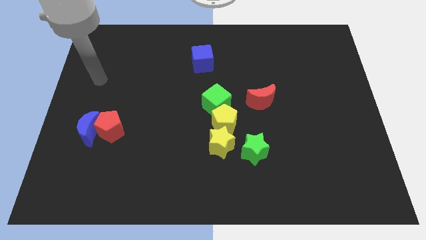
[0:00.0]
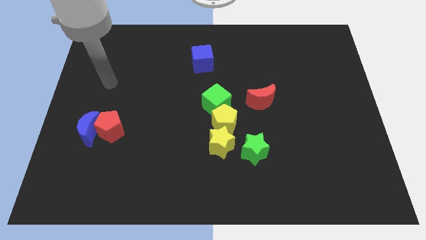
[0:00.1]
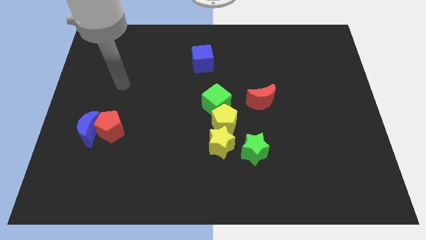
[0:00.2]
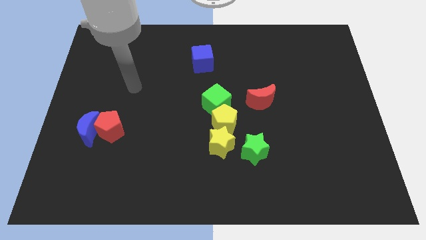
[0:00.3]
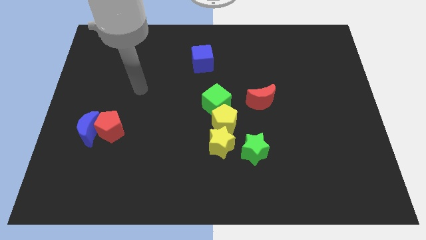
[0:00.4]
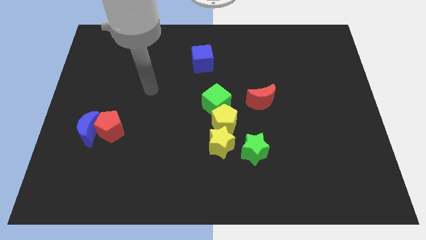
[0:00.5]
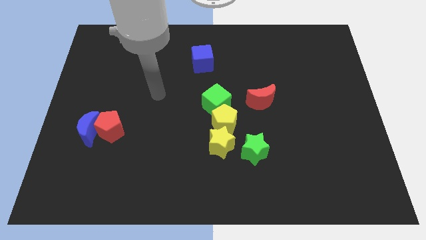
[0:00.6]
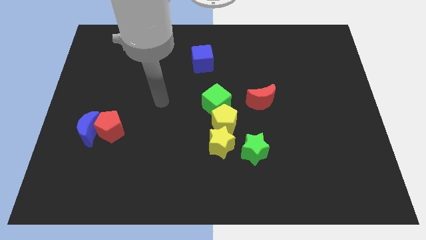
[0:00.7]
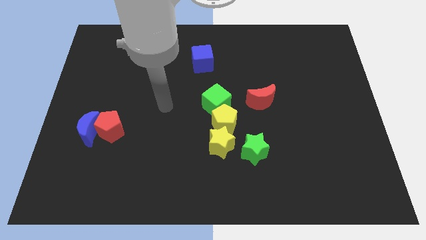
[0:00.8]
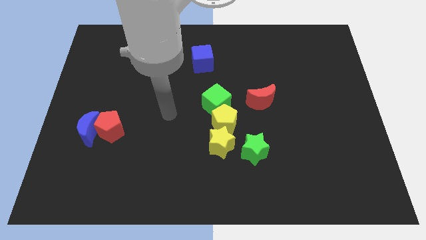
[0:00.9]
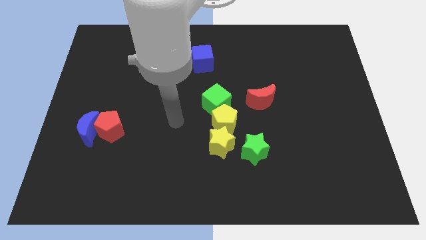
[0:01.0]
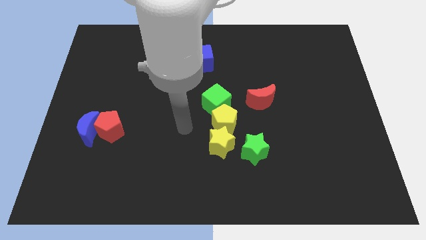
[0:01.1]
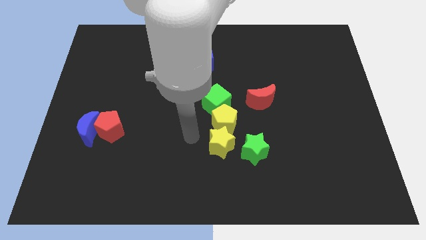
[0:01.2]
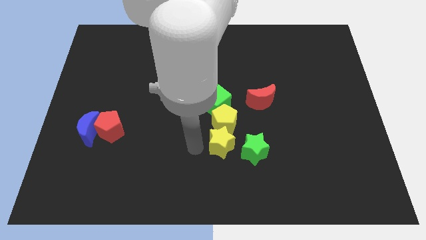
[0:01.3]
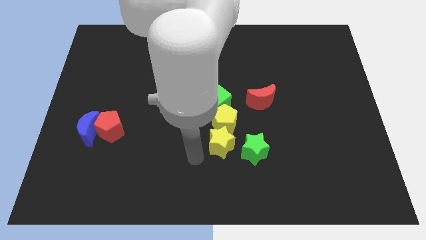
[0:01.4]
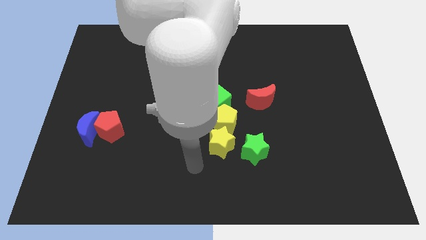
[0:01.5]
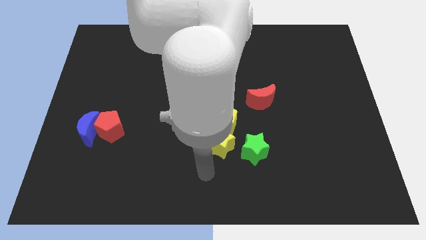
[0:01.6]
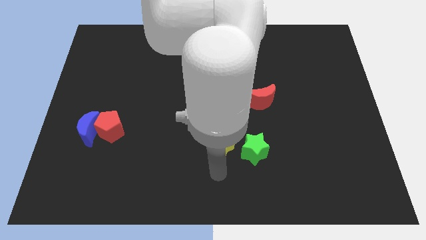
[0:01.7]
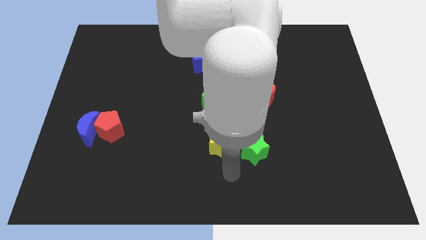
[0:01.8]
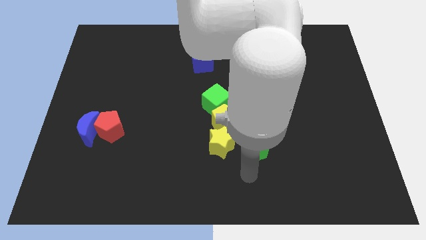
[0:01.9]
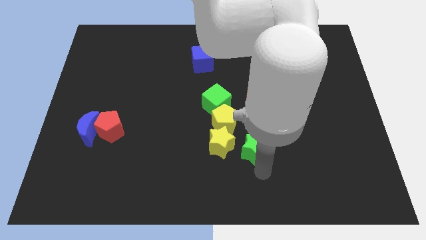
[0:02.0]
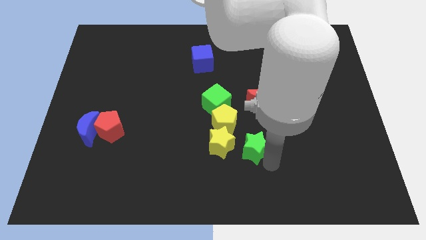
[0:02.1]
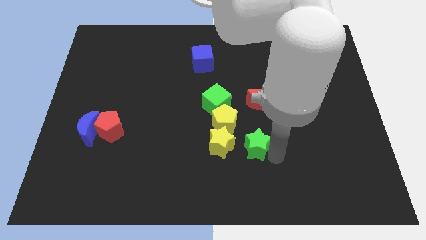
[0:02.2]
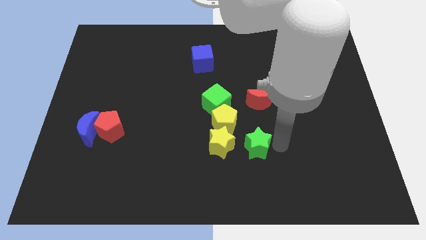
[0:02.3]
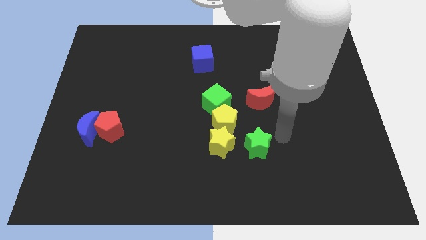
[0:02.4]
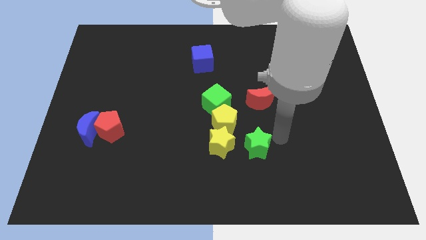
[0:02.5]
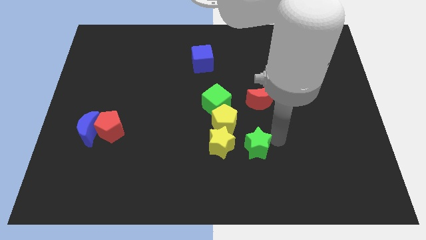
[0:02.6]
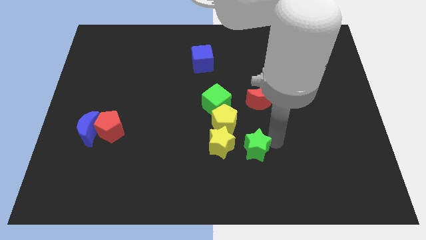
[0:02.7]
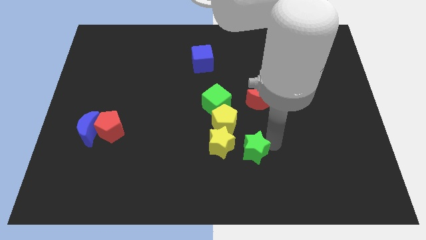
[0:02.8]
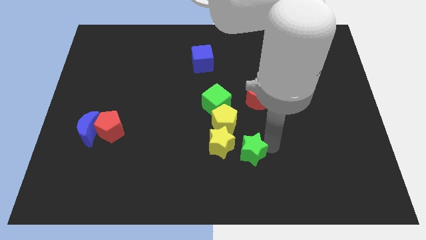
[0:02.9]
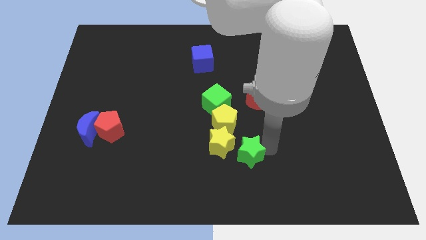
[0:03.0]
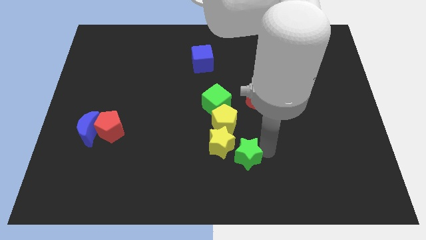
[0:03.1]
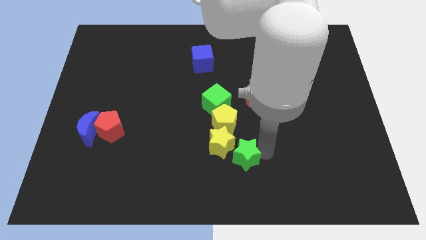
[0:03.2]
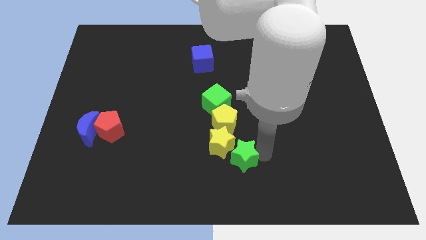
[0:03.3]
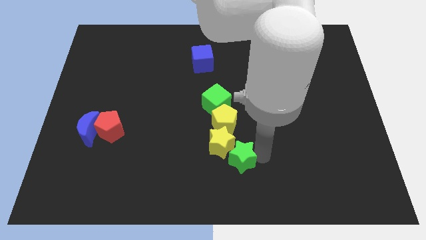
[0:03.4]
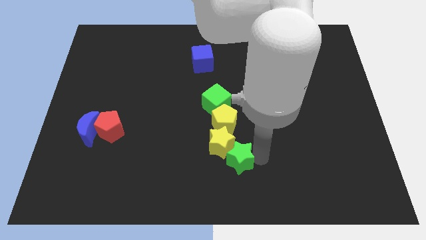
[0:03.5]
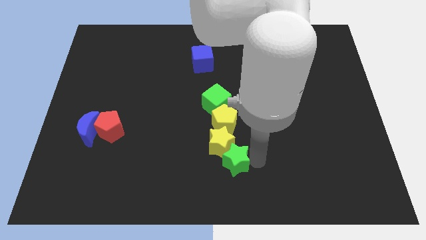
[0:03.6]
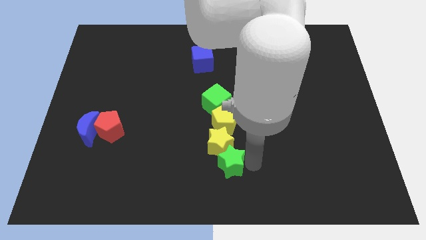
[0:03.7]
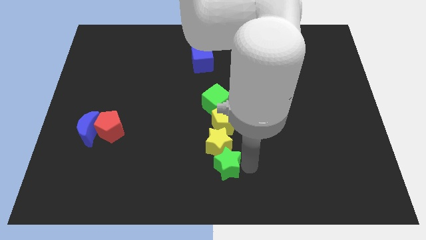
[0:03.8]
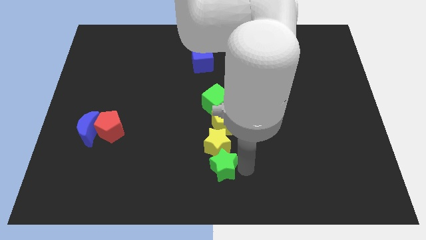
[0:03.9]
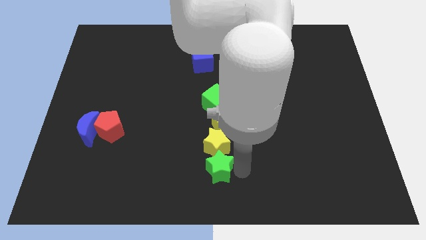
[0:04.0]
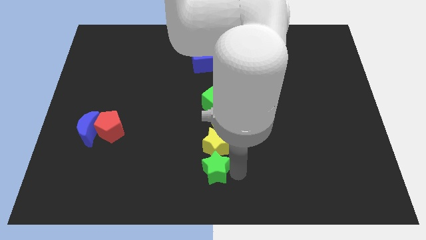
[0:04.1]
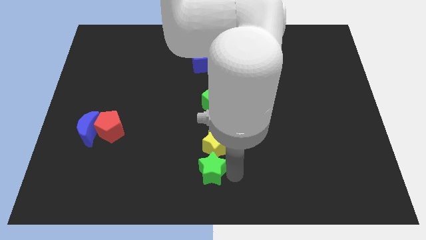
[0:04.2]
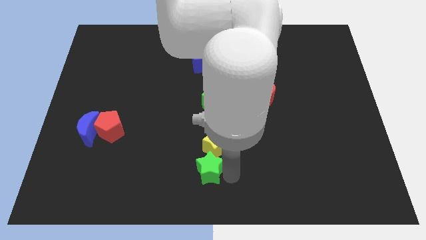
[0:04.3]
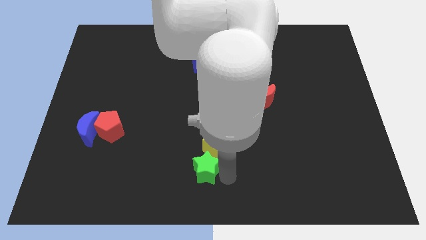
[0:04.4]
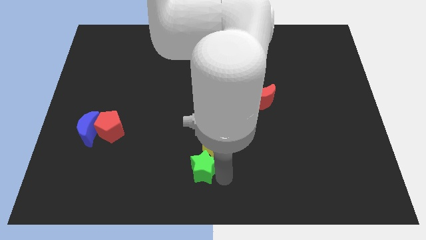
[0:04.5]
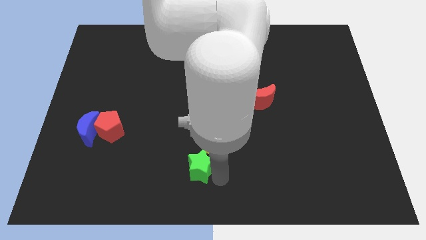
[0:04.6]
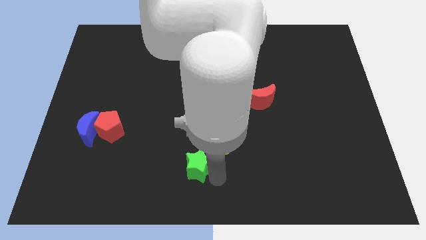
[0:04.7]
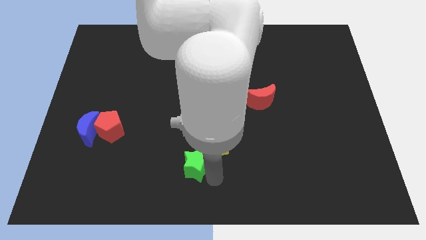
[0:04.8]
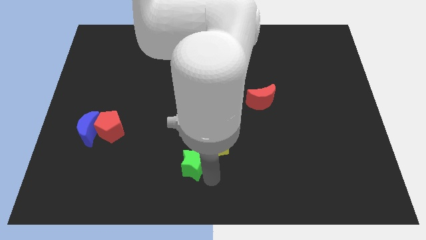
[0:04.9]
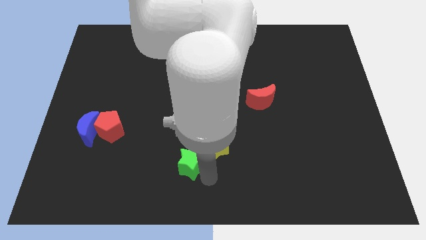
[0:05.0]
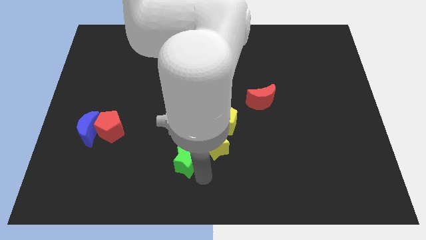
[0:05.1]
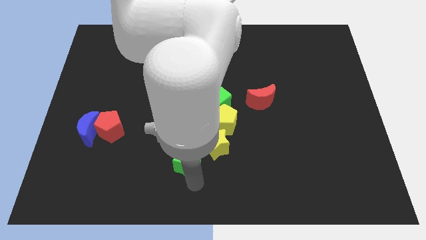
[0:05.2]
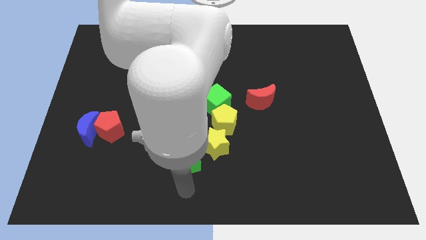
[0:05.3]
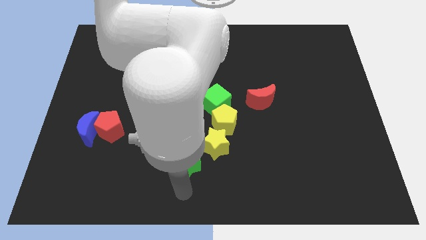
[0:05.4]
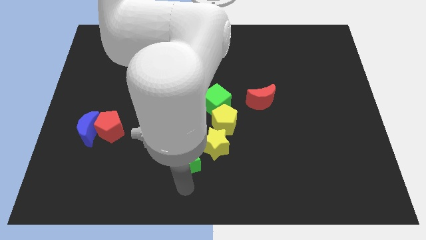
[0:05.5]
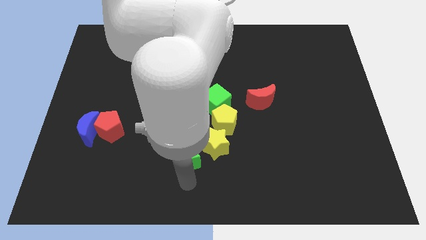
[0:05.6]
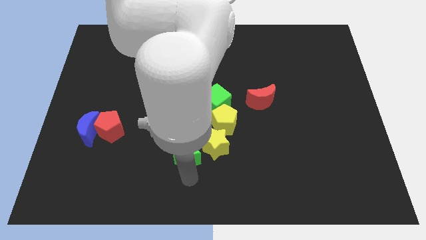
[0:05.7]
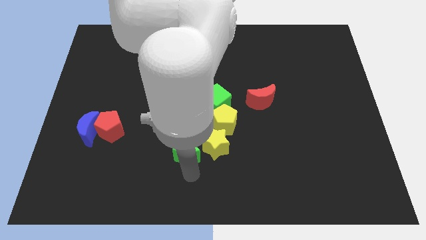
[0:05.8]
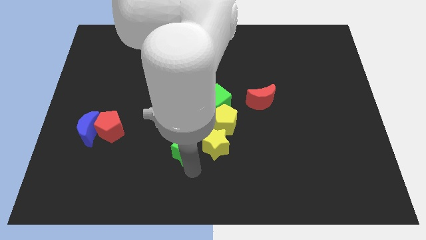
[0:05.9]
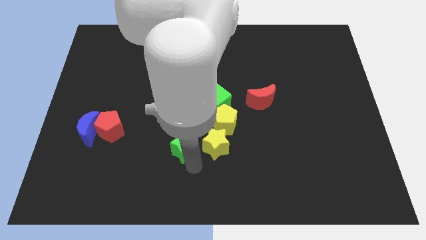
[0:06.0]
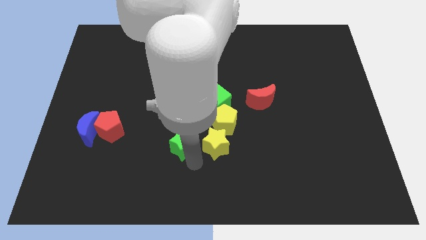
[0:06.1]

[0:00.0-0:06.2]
push the green star a little bit diagonally up and to the left

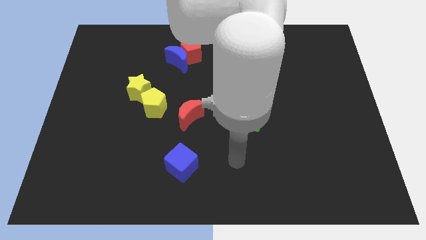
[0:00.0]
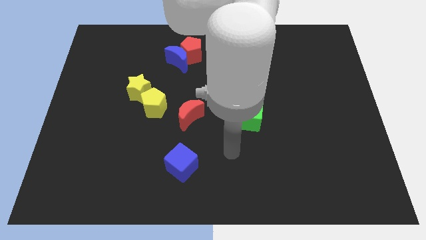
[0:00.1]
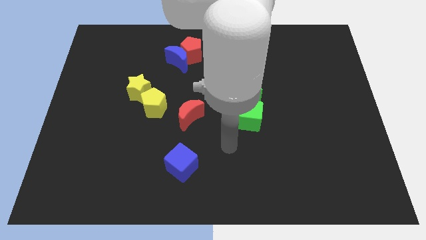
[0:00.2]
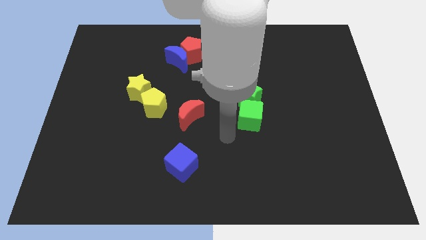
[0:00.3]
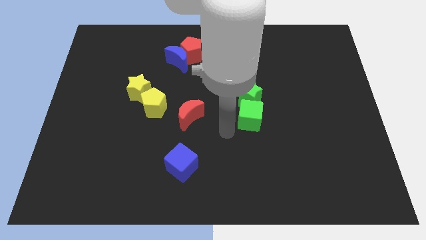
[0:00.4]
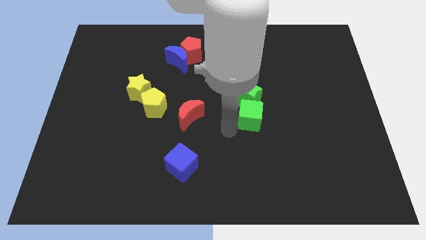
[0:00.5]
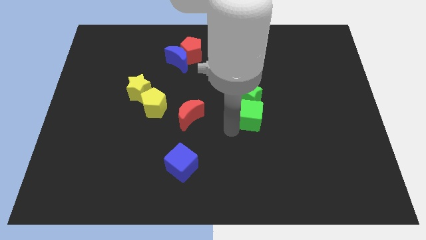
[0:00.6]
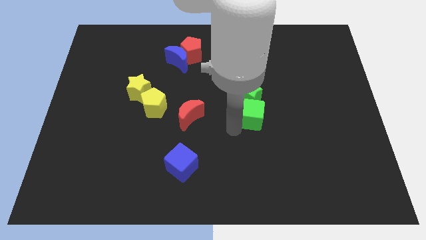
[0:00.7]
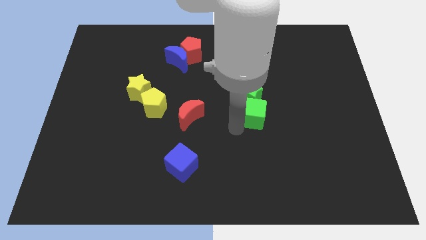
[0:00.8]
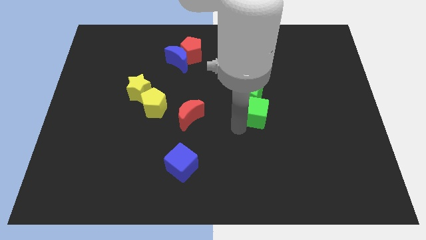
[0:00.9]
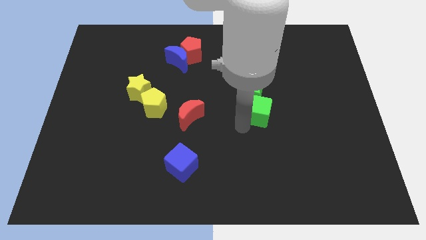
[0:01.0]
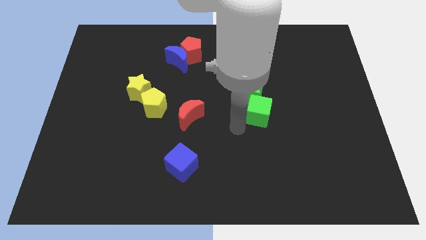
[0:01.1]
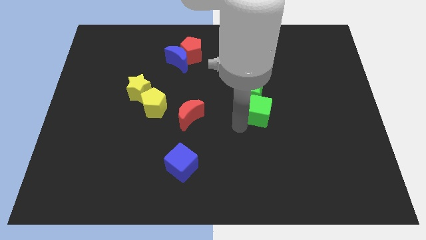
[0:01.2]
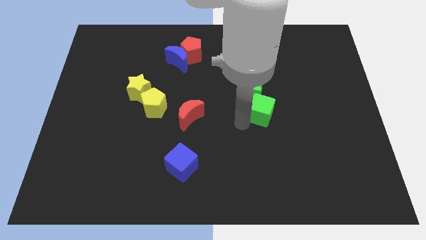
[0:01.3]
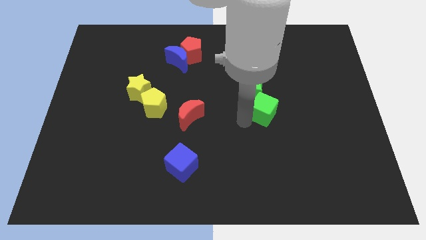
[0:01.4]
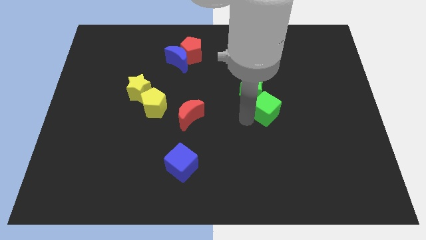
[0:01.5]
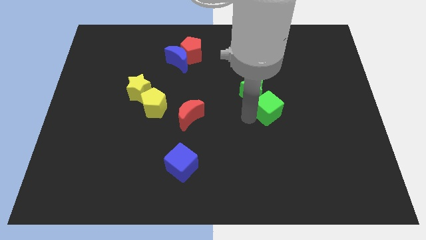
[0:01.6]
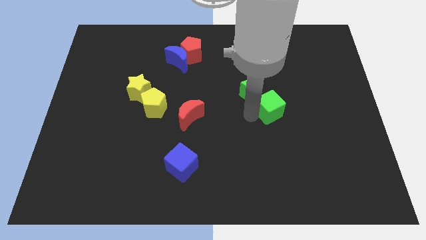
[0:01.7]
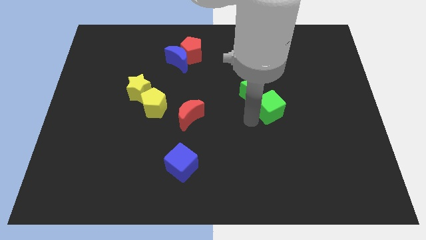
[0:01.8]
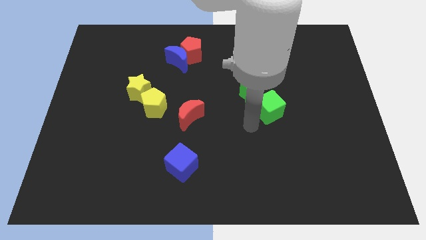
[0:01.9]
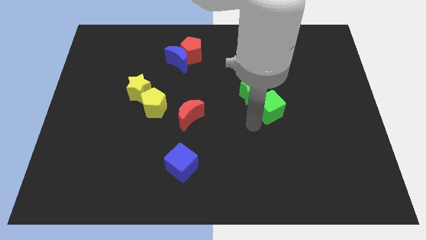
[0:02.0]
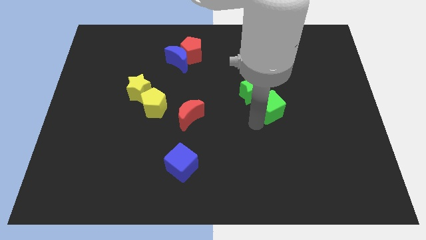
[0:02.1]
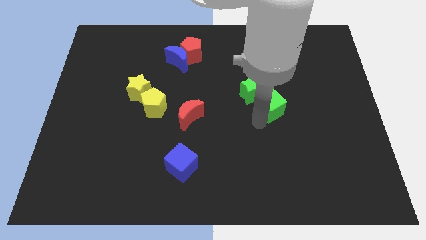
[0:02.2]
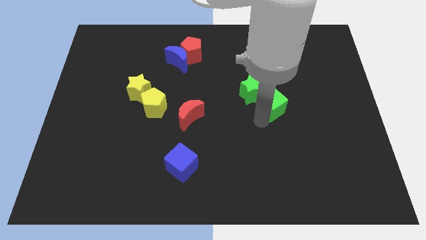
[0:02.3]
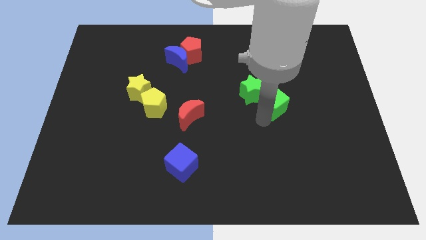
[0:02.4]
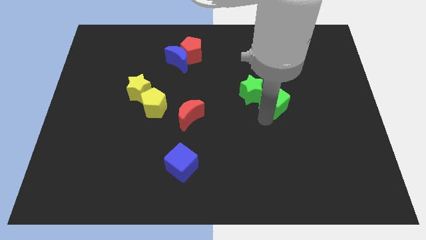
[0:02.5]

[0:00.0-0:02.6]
move the green cube a little bit up and then to the right
